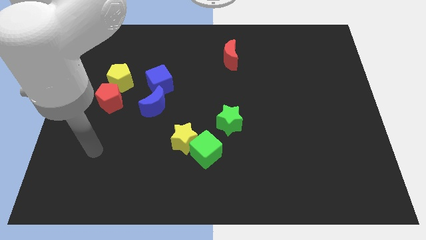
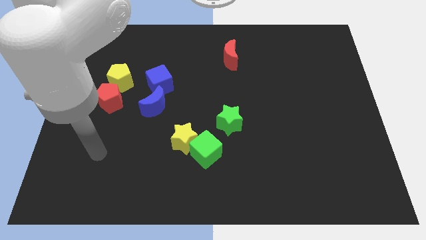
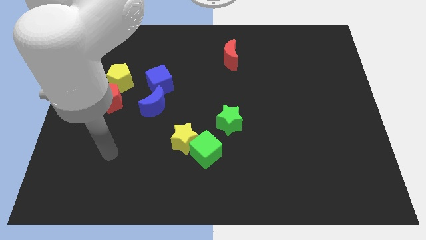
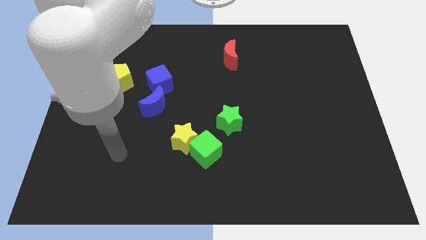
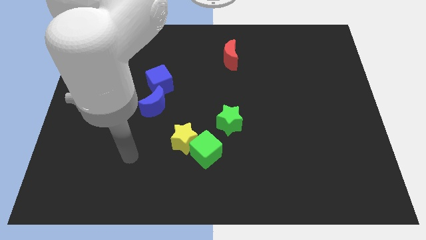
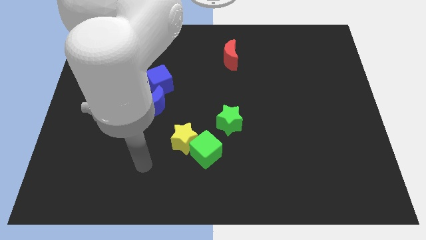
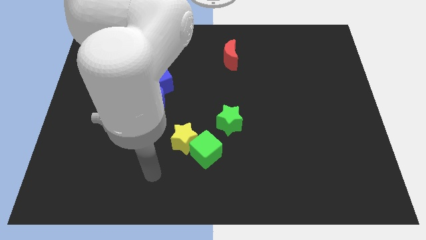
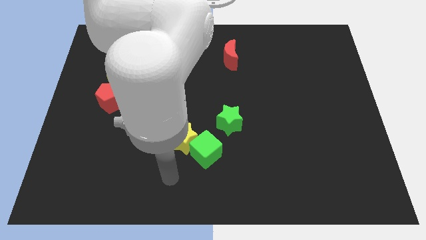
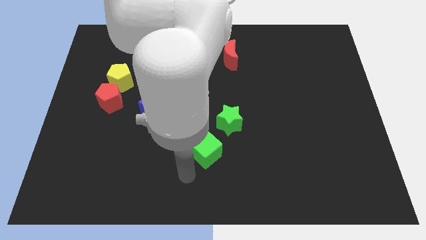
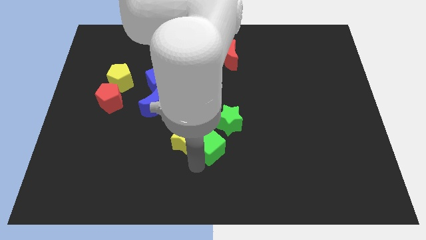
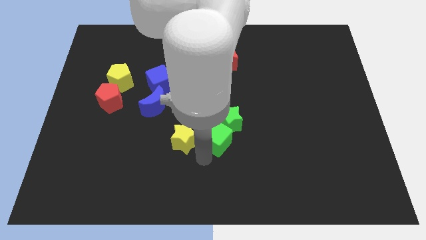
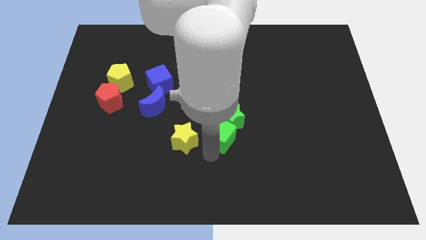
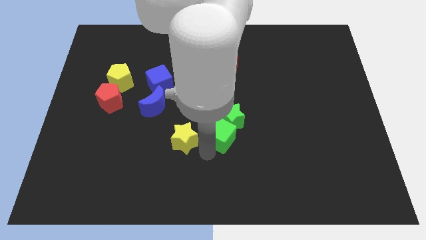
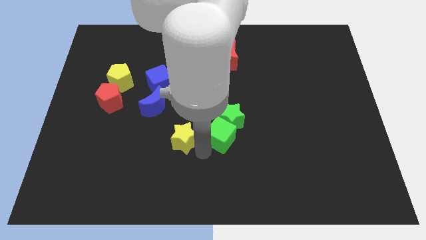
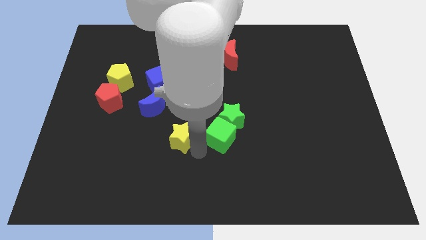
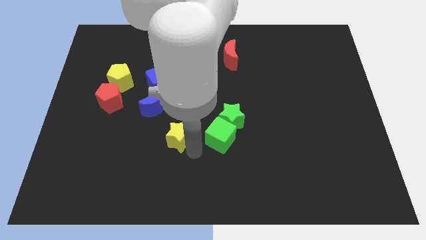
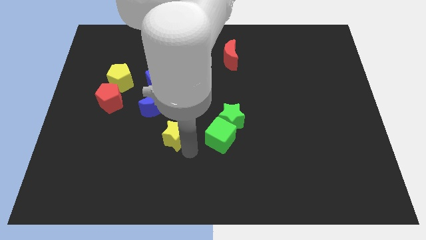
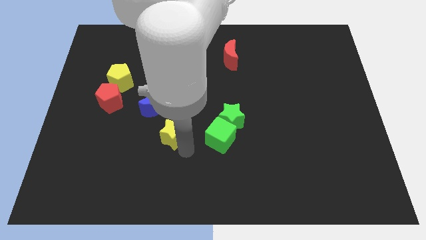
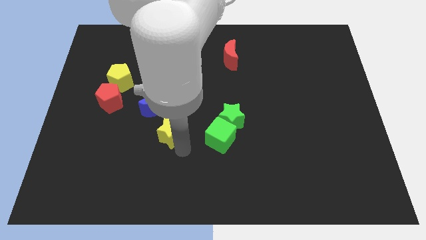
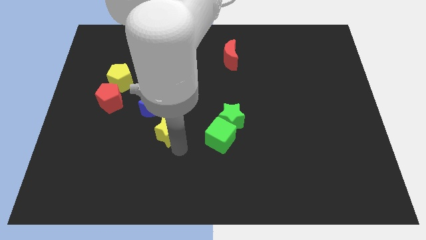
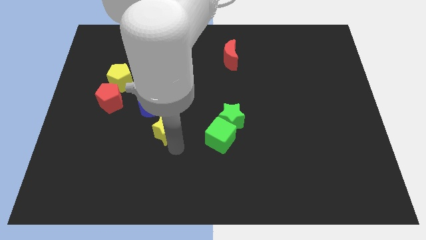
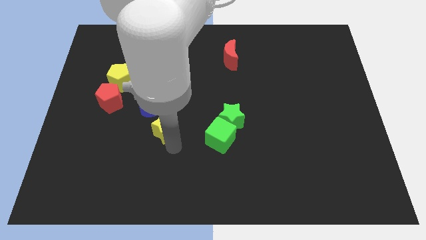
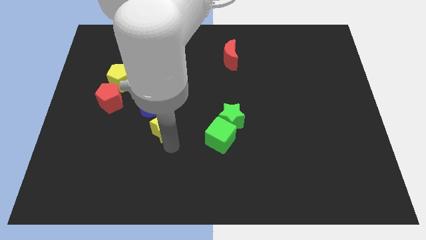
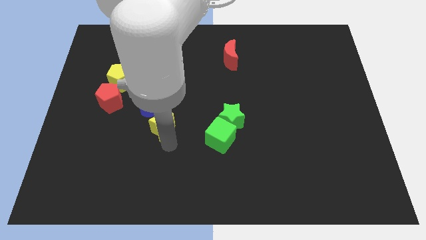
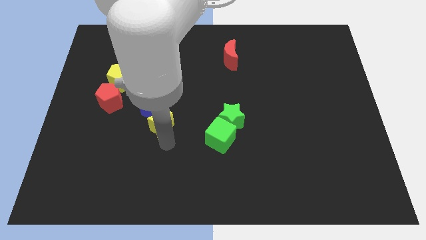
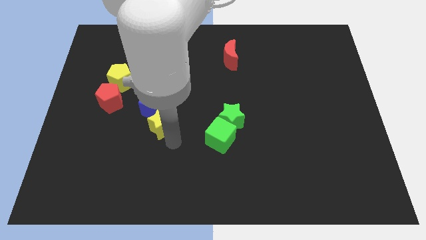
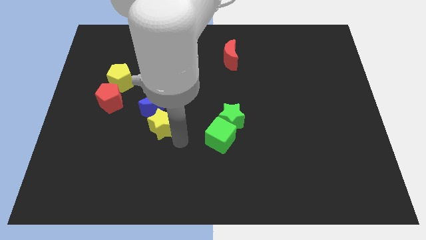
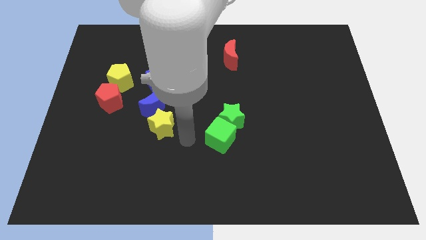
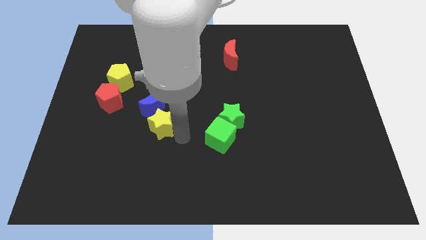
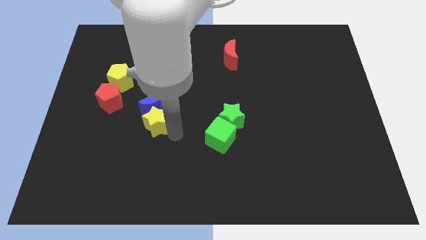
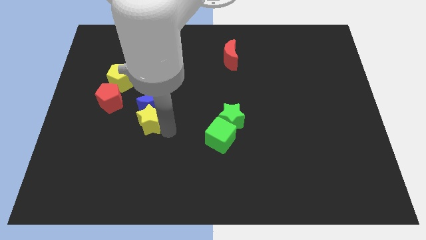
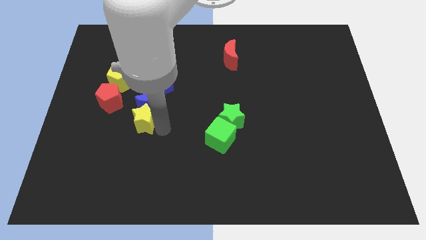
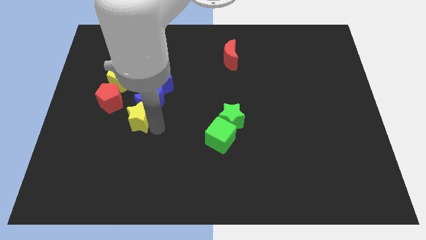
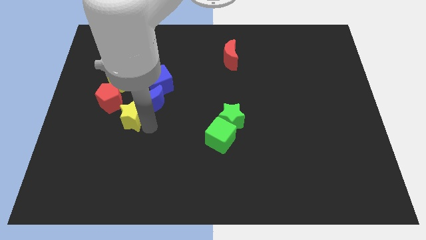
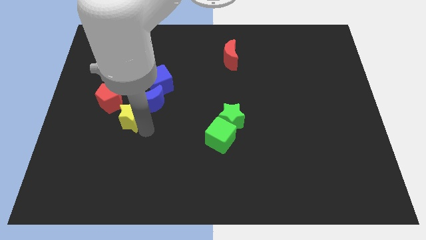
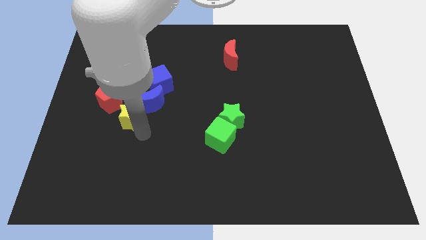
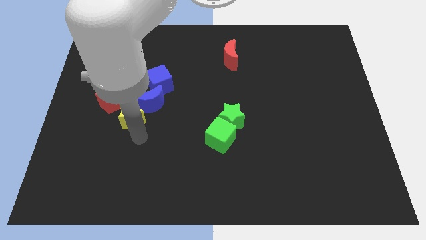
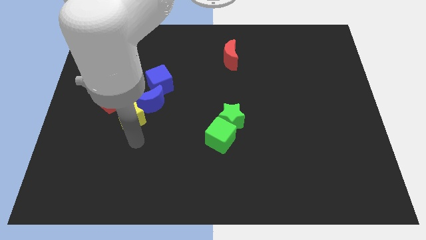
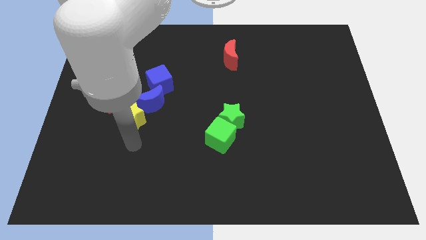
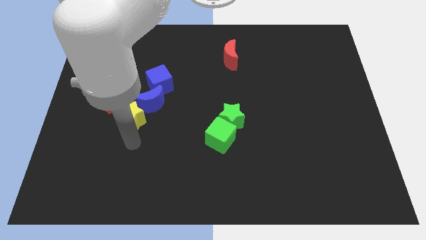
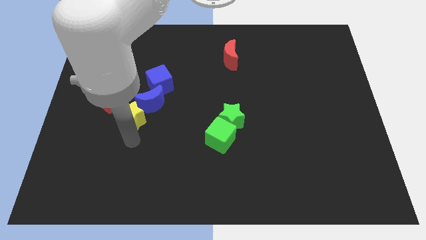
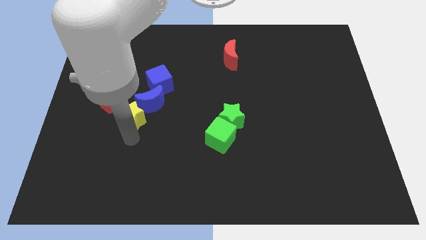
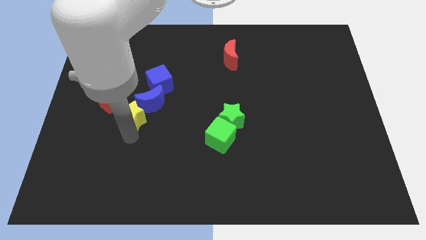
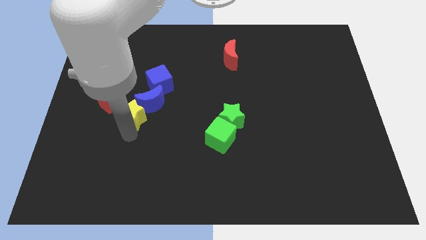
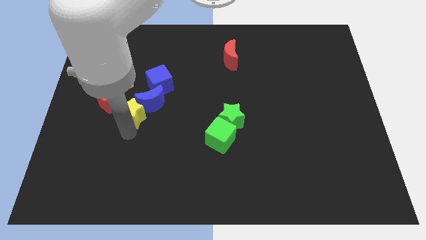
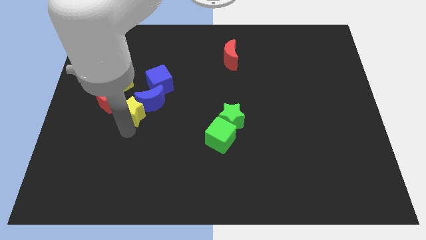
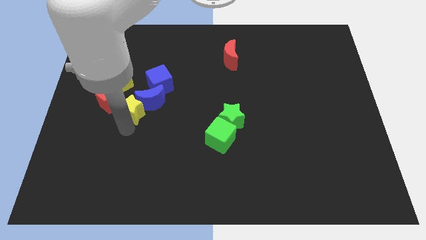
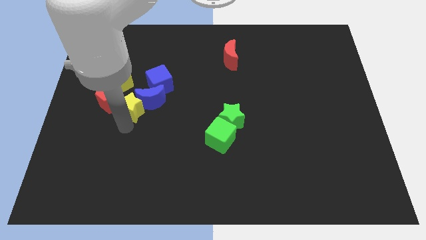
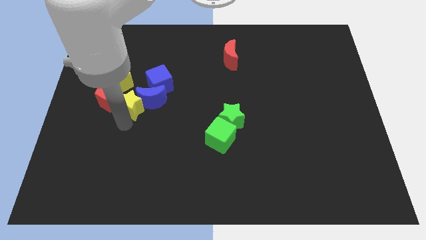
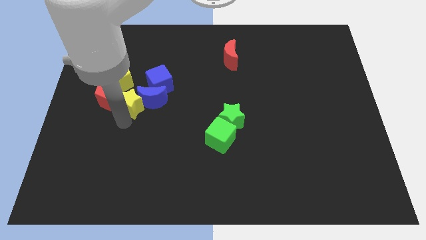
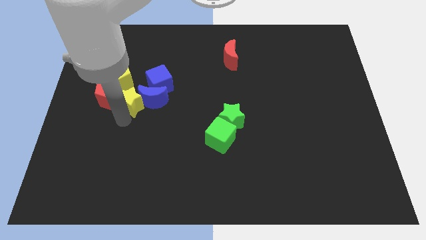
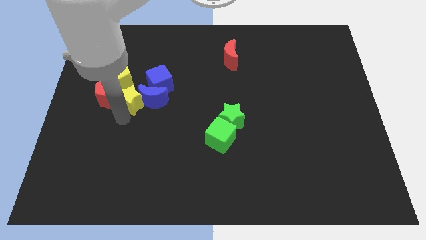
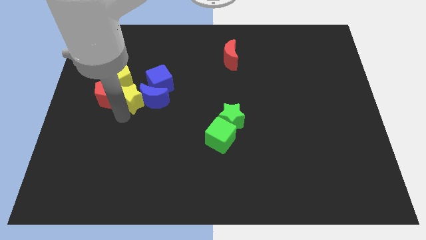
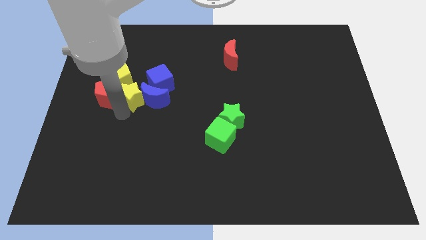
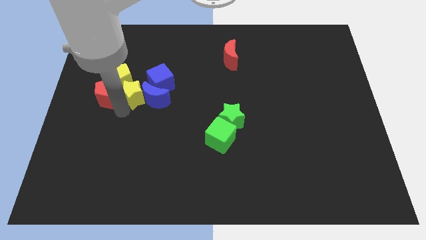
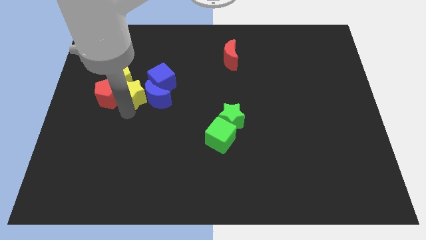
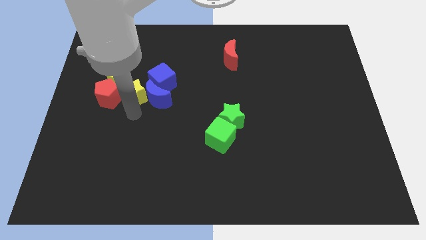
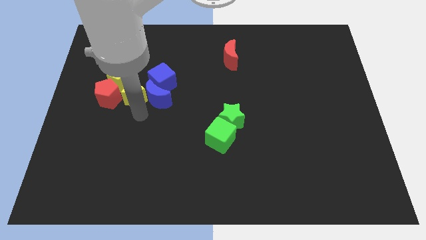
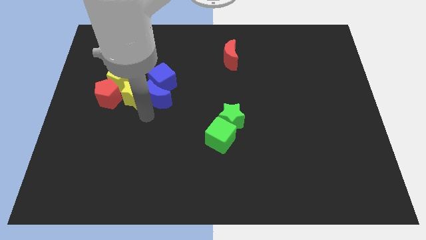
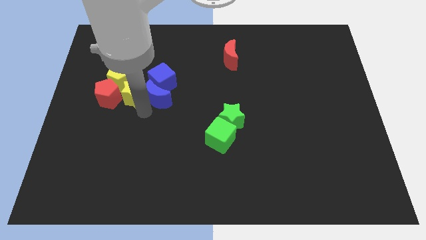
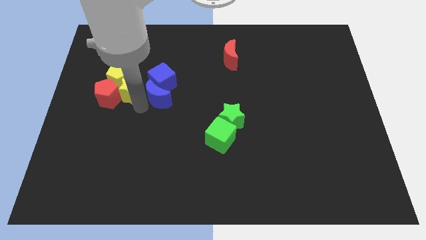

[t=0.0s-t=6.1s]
move the yellow star to the yellow pentagon

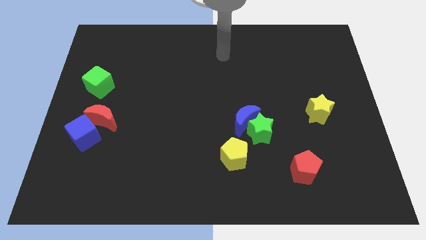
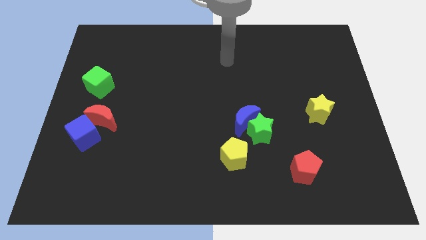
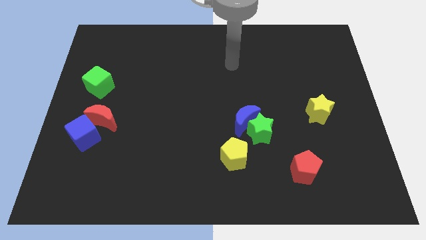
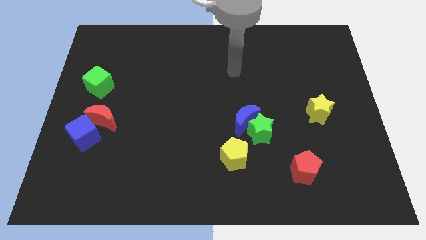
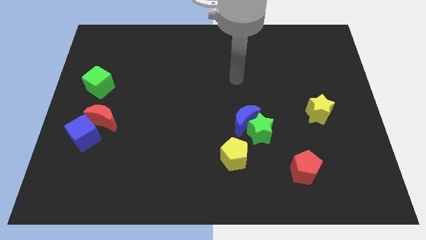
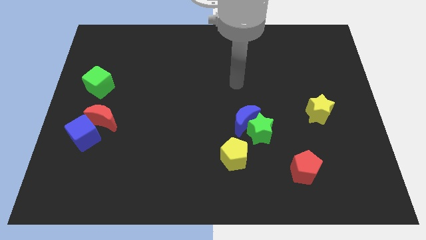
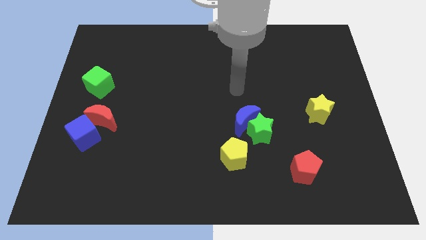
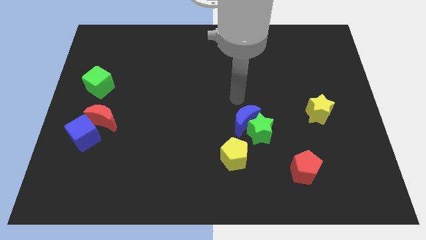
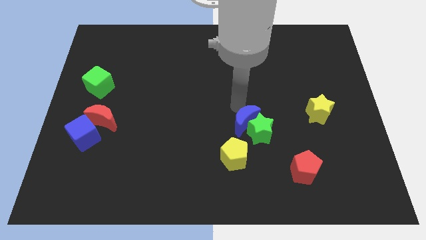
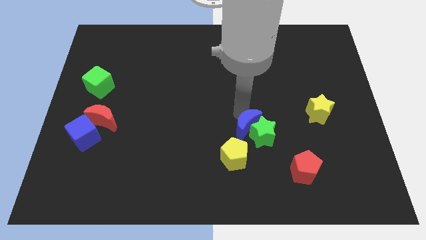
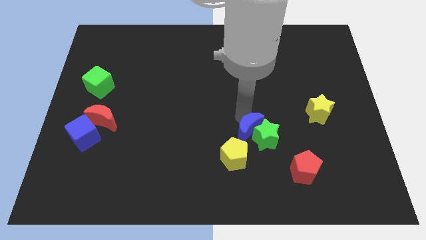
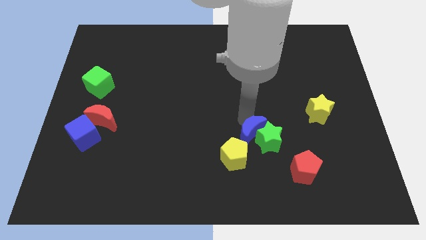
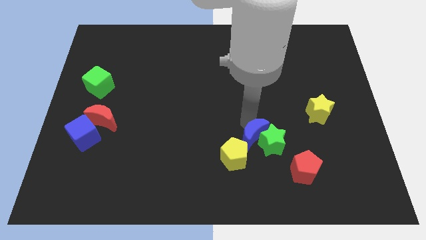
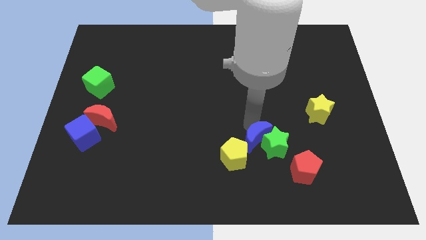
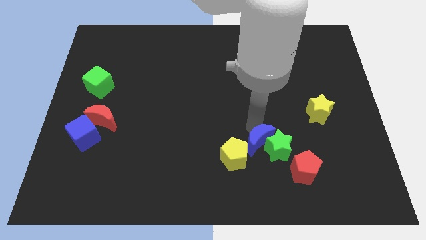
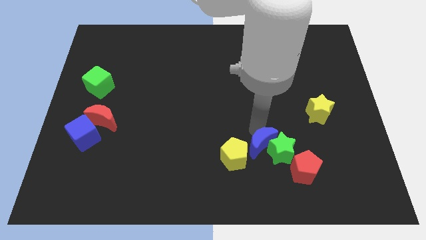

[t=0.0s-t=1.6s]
move the green star towards the red pentagon
